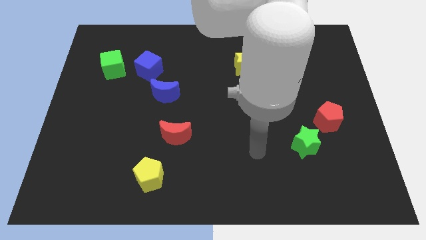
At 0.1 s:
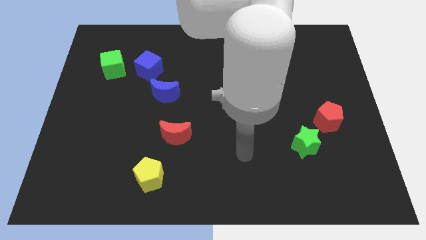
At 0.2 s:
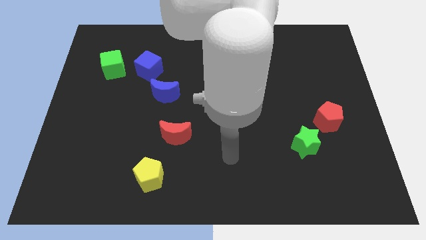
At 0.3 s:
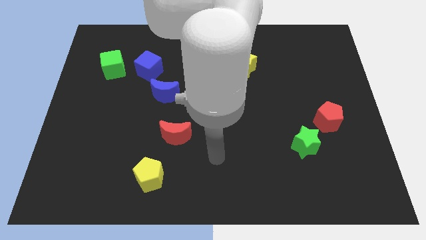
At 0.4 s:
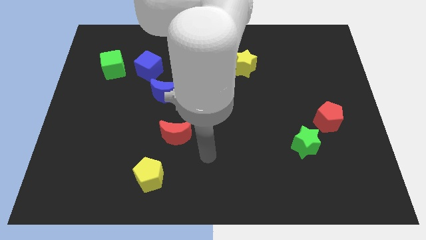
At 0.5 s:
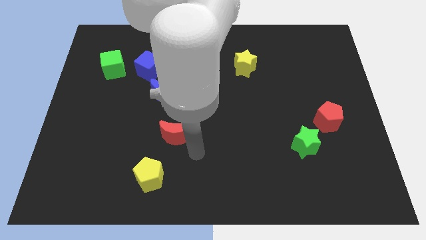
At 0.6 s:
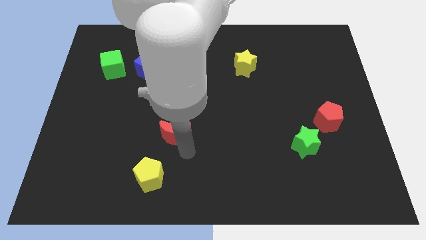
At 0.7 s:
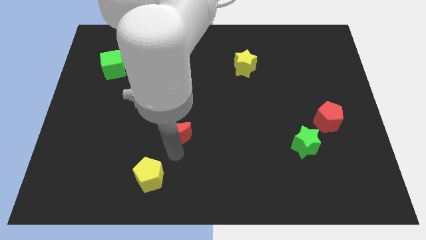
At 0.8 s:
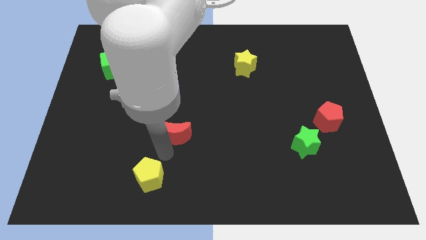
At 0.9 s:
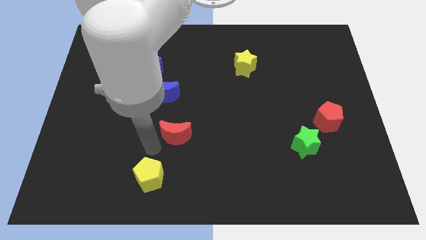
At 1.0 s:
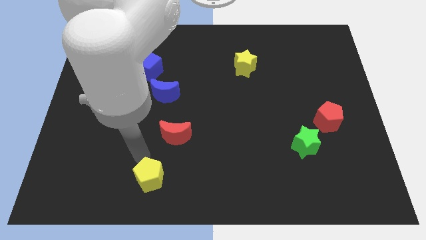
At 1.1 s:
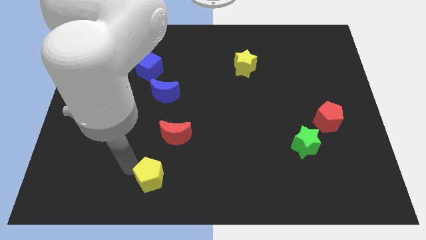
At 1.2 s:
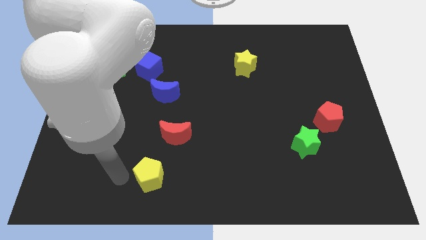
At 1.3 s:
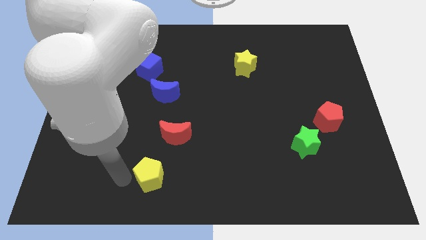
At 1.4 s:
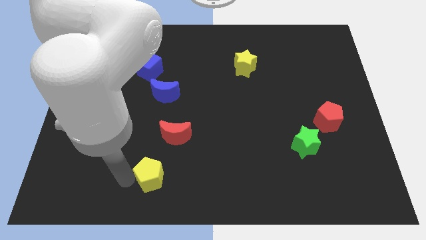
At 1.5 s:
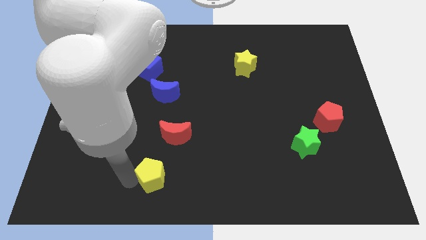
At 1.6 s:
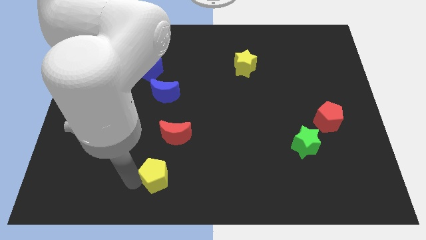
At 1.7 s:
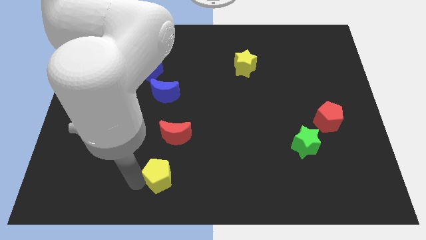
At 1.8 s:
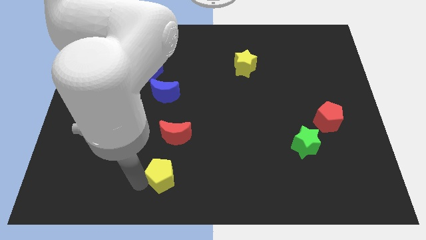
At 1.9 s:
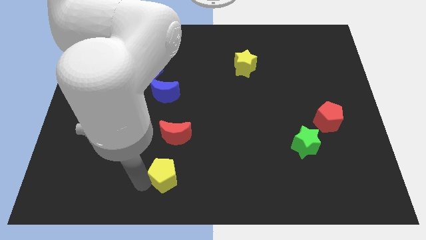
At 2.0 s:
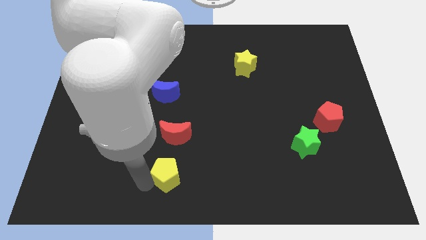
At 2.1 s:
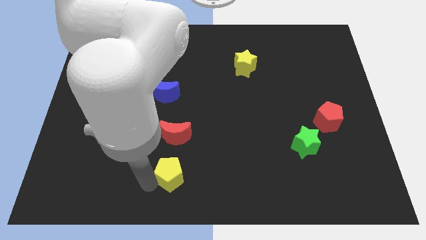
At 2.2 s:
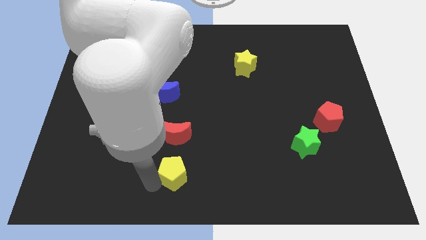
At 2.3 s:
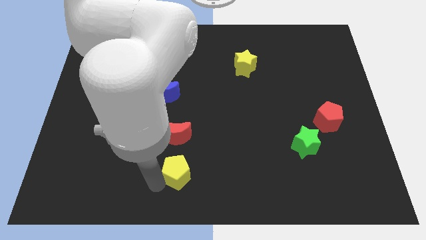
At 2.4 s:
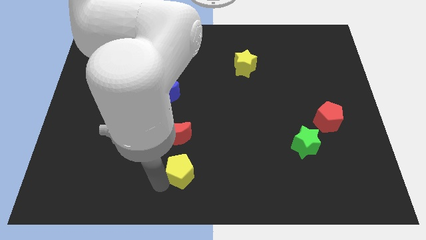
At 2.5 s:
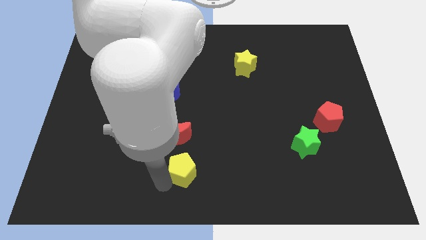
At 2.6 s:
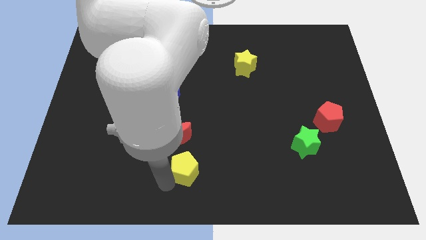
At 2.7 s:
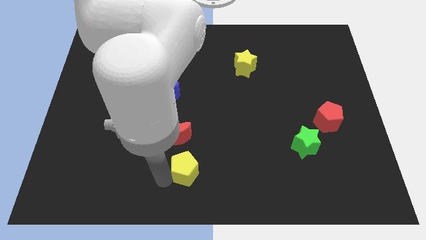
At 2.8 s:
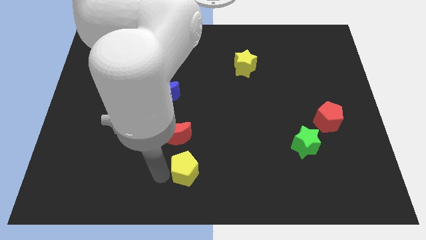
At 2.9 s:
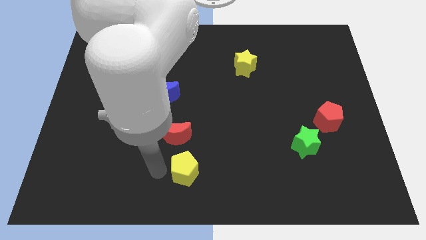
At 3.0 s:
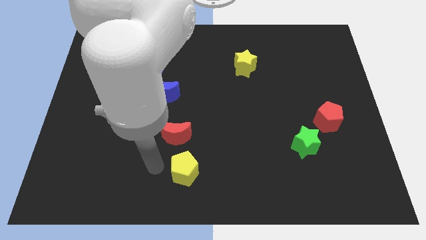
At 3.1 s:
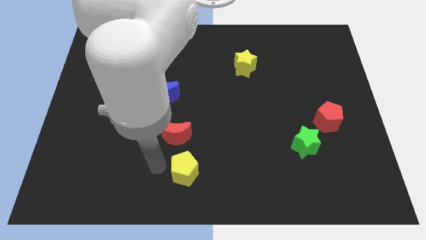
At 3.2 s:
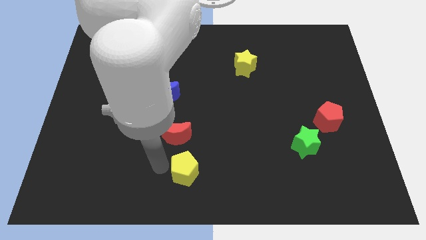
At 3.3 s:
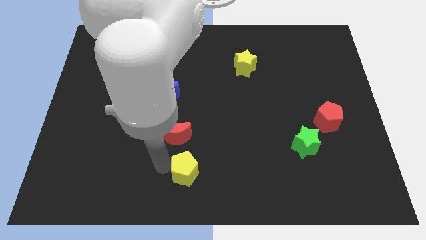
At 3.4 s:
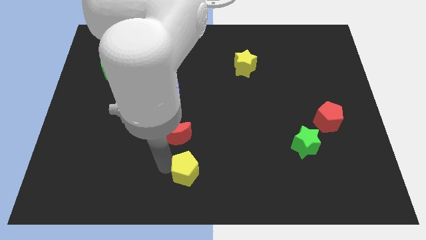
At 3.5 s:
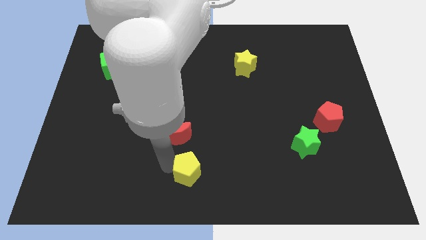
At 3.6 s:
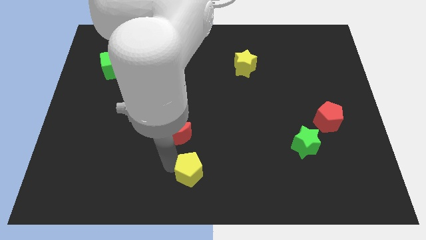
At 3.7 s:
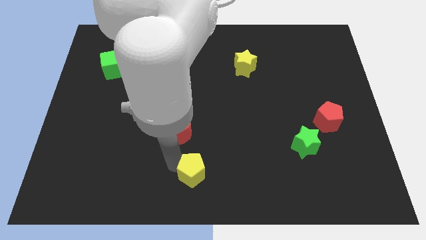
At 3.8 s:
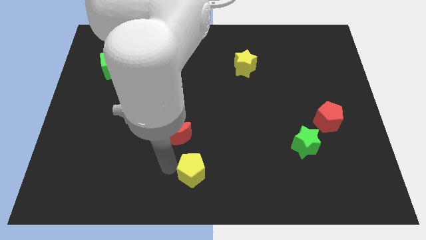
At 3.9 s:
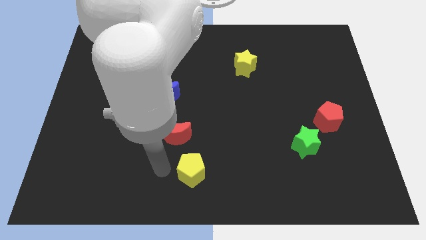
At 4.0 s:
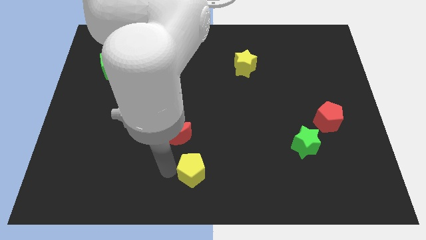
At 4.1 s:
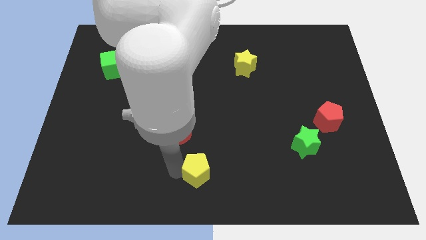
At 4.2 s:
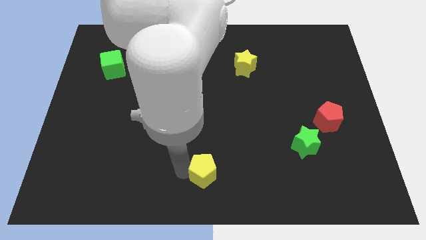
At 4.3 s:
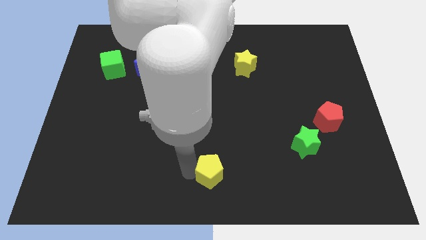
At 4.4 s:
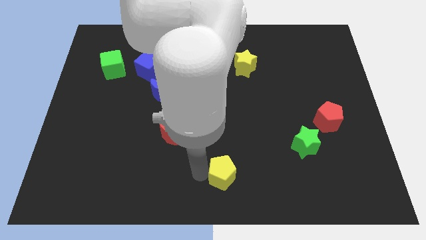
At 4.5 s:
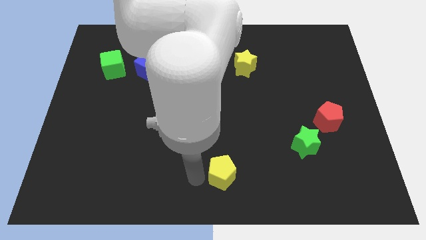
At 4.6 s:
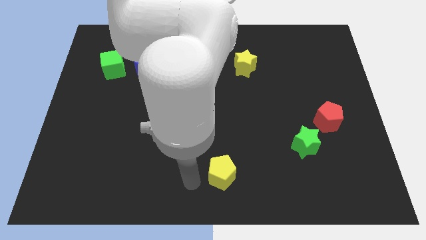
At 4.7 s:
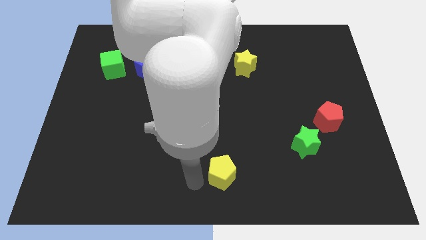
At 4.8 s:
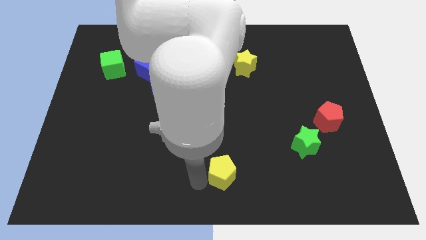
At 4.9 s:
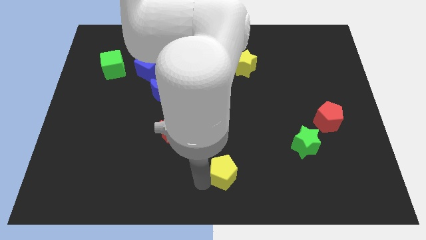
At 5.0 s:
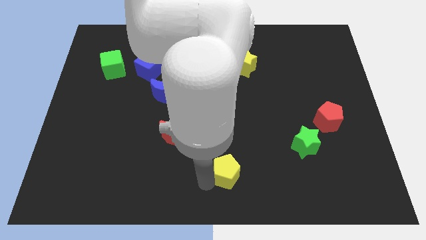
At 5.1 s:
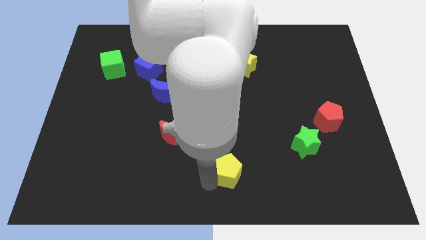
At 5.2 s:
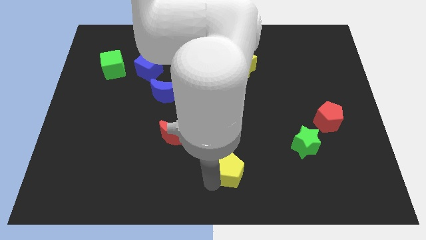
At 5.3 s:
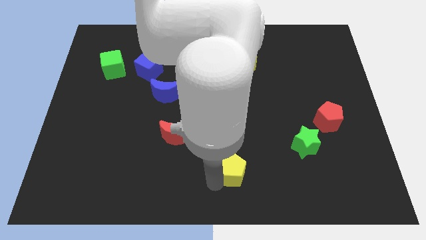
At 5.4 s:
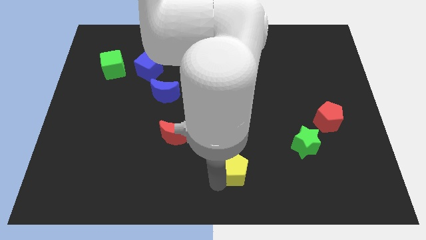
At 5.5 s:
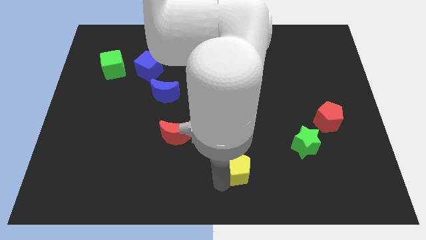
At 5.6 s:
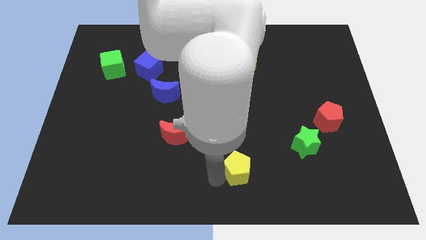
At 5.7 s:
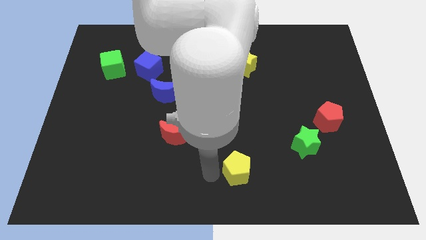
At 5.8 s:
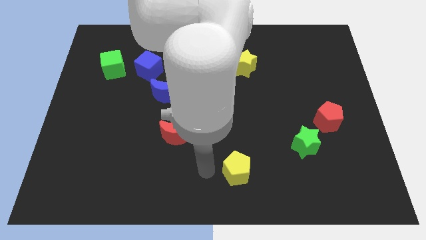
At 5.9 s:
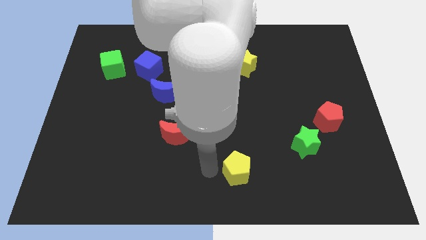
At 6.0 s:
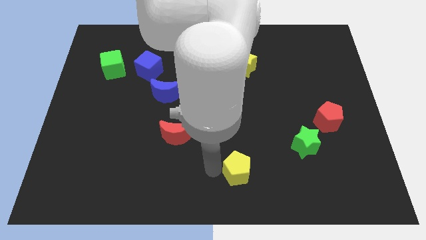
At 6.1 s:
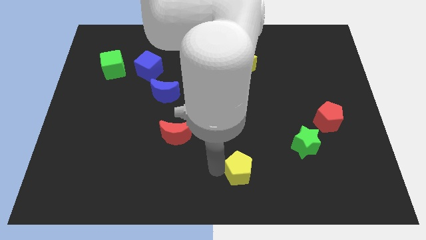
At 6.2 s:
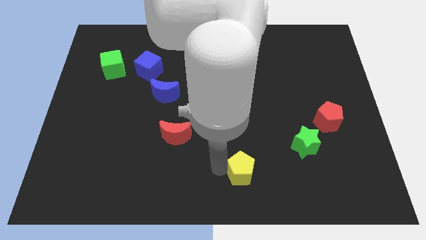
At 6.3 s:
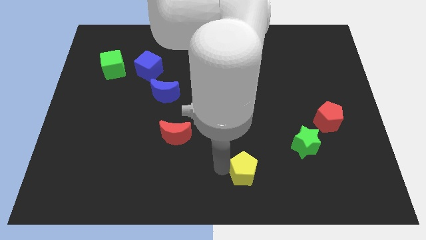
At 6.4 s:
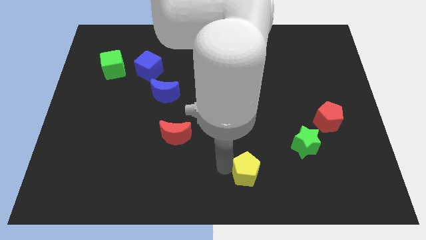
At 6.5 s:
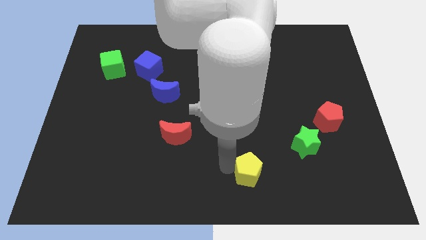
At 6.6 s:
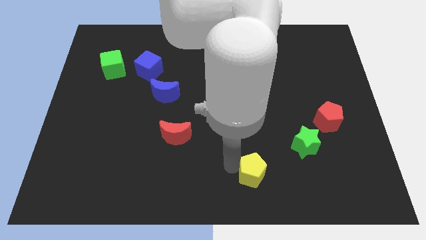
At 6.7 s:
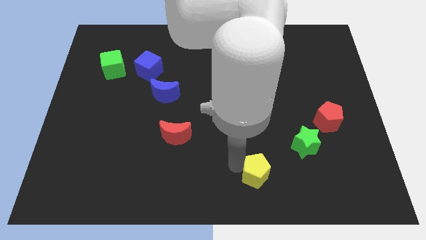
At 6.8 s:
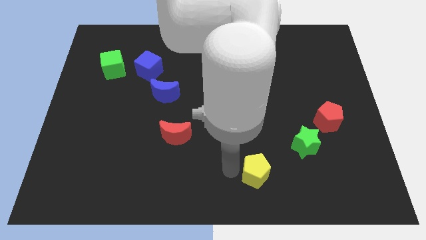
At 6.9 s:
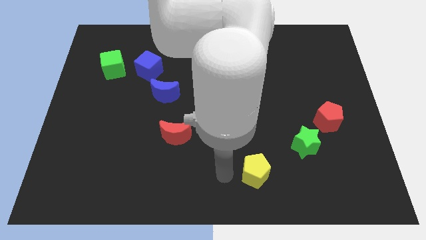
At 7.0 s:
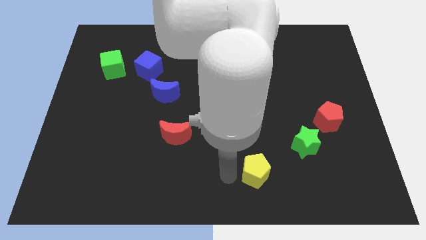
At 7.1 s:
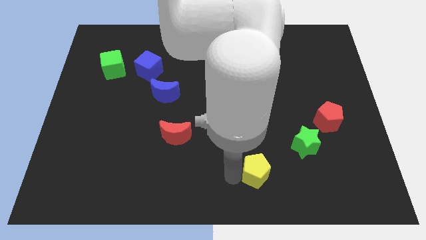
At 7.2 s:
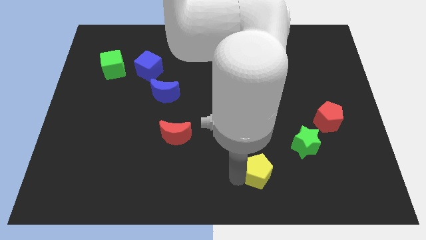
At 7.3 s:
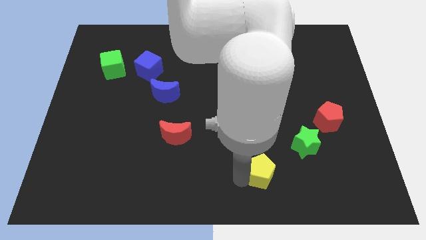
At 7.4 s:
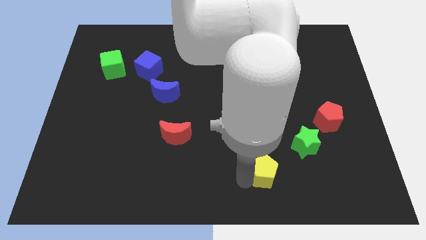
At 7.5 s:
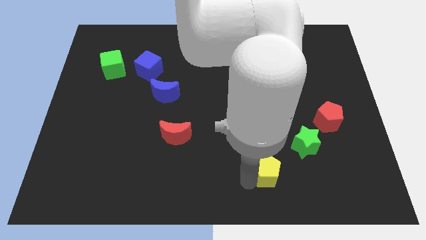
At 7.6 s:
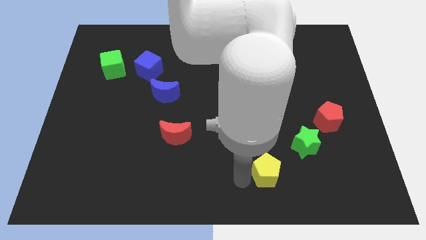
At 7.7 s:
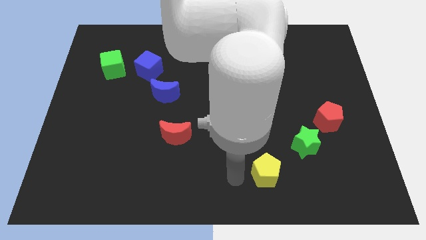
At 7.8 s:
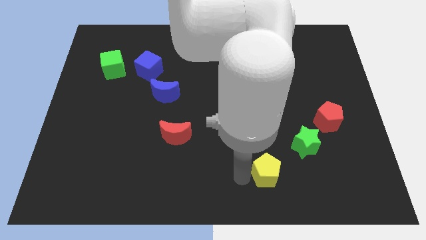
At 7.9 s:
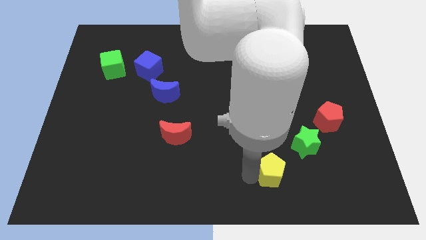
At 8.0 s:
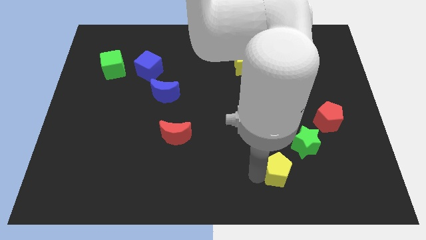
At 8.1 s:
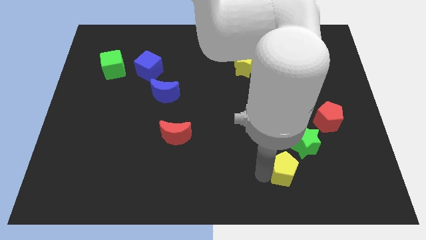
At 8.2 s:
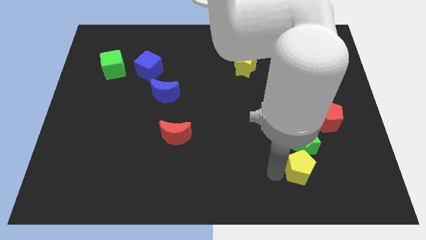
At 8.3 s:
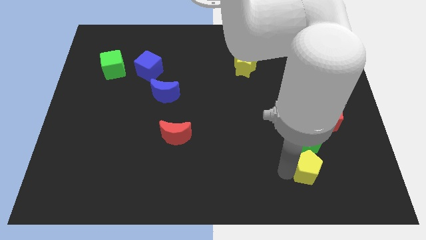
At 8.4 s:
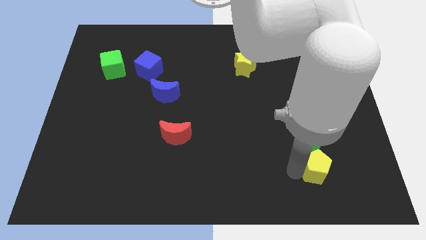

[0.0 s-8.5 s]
put the yellow pentagon to the bottom right of the green star
